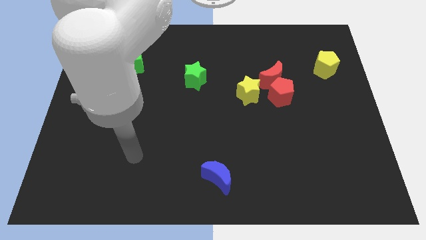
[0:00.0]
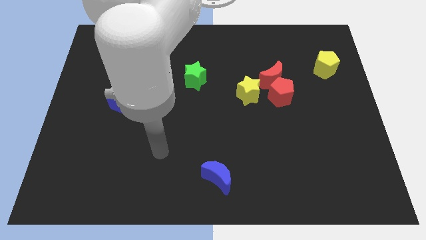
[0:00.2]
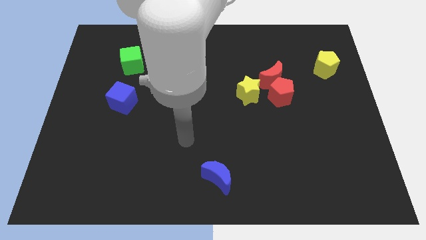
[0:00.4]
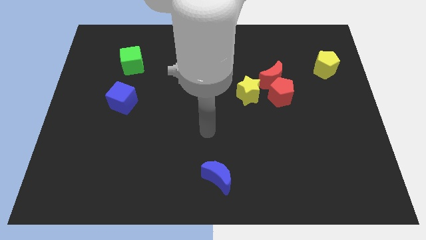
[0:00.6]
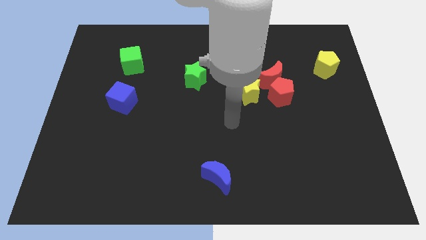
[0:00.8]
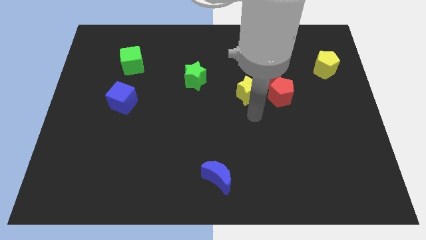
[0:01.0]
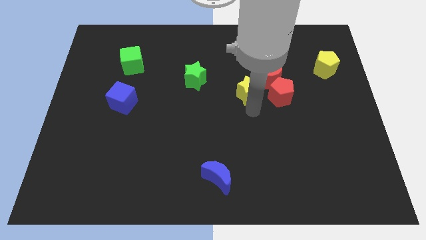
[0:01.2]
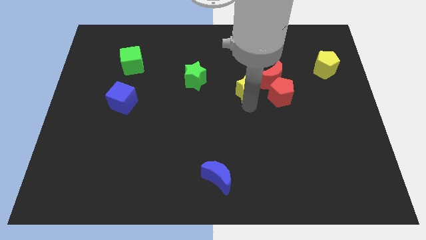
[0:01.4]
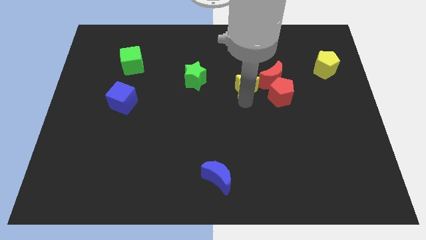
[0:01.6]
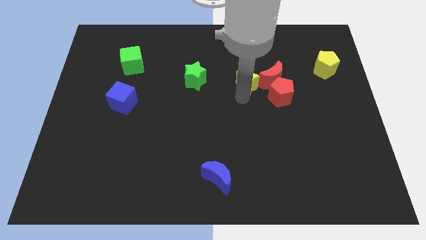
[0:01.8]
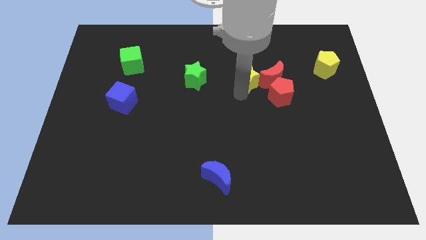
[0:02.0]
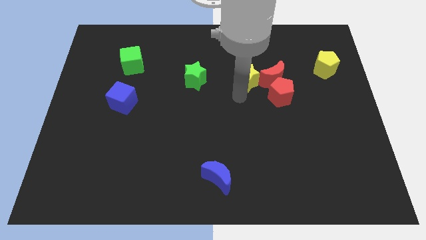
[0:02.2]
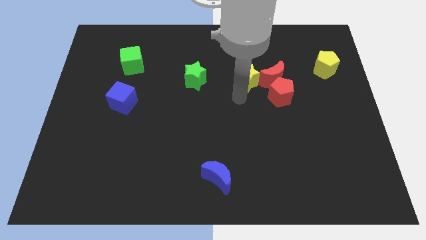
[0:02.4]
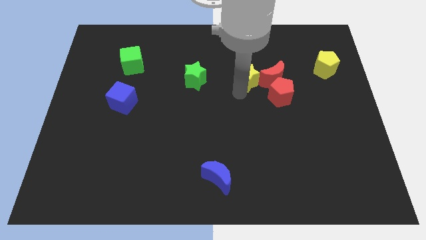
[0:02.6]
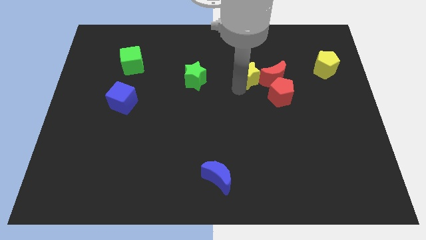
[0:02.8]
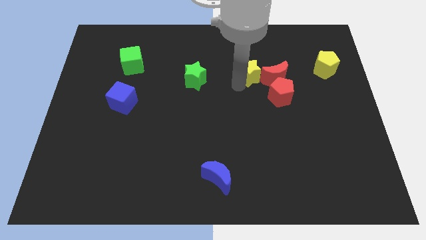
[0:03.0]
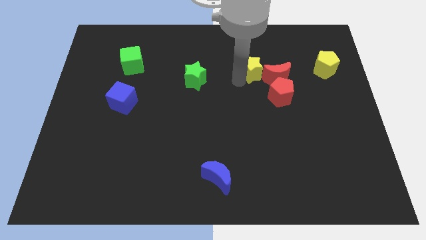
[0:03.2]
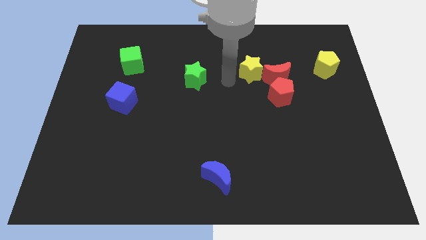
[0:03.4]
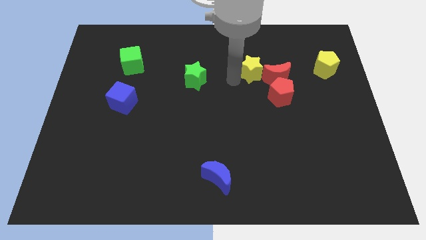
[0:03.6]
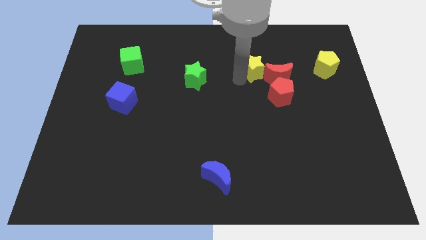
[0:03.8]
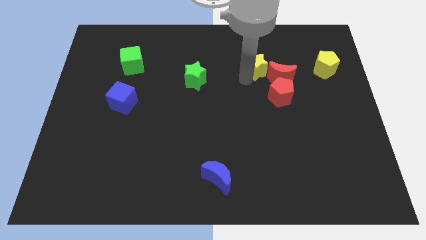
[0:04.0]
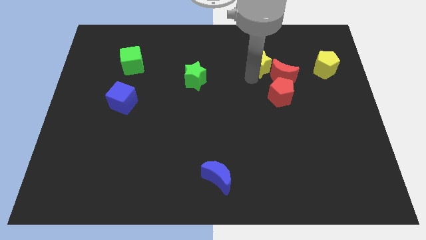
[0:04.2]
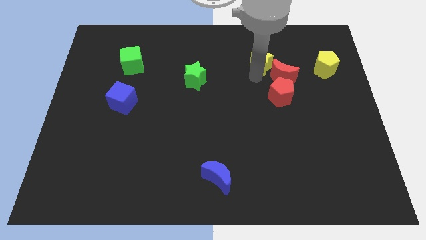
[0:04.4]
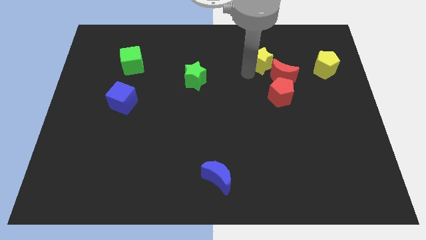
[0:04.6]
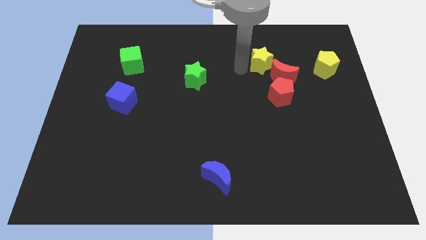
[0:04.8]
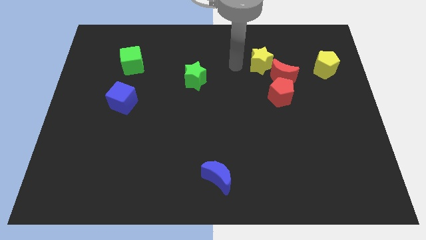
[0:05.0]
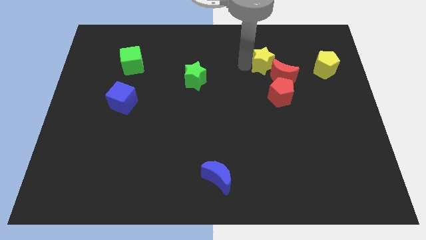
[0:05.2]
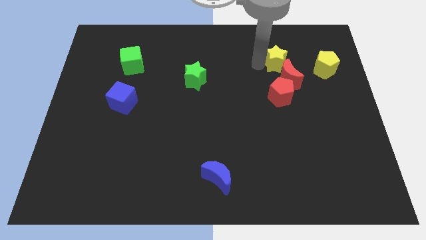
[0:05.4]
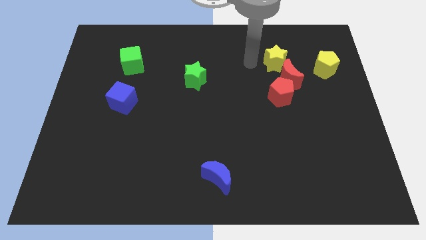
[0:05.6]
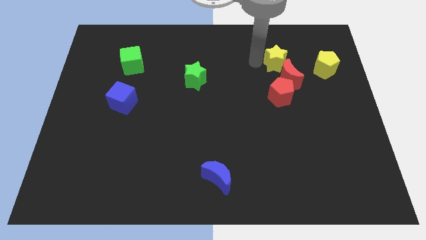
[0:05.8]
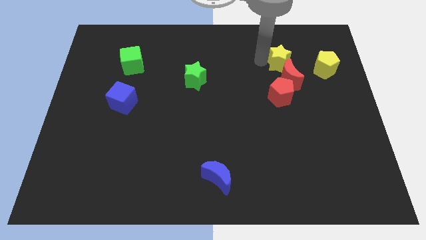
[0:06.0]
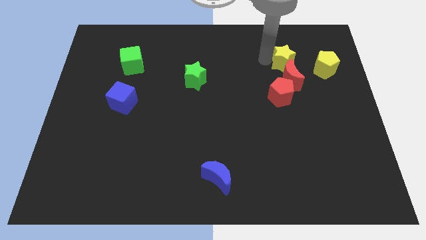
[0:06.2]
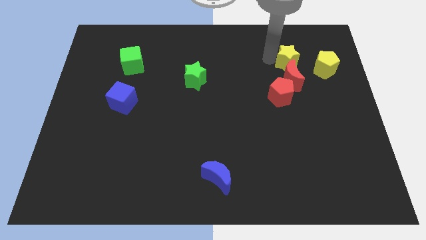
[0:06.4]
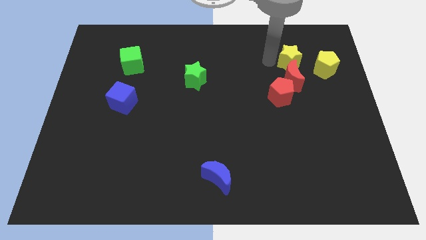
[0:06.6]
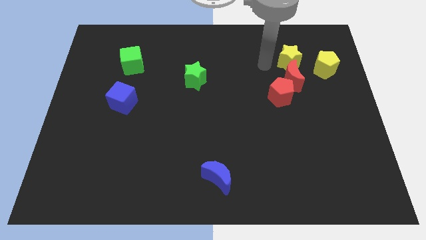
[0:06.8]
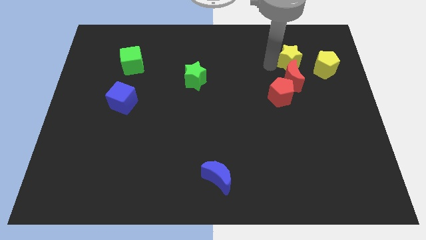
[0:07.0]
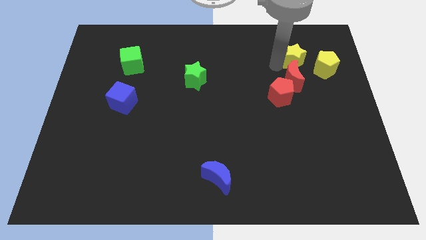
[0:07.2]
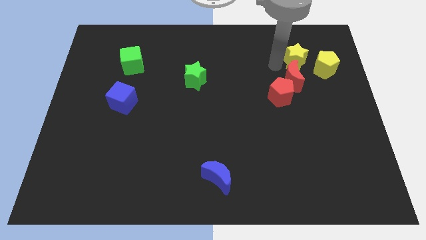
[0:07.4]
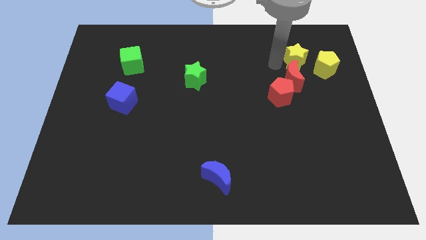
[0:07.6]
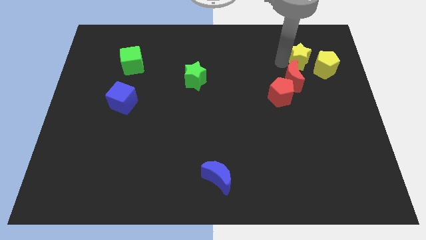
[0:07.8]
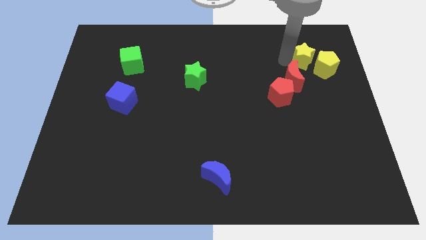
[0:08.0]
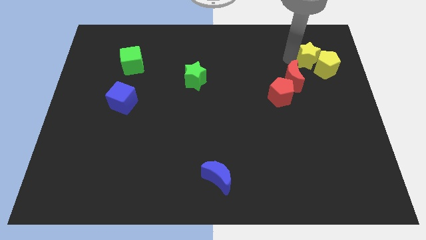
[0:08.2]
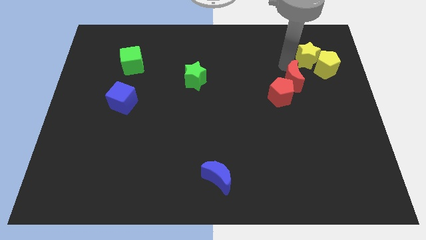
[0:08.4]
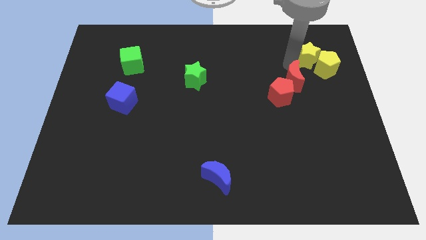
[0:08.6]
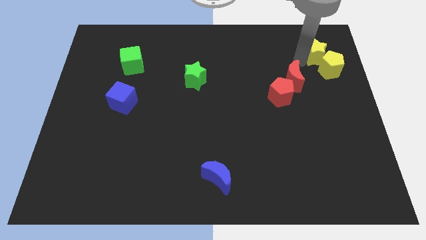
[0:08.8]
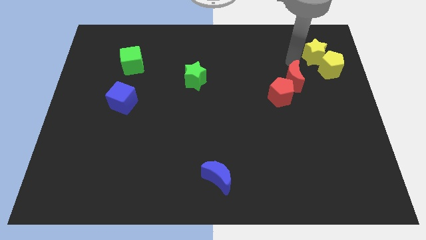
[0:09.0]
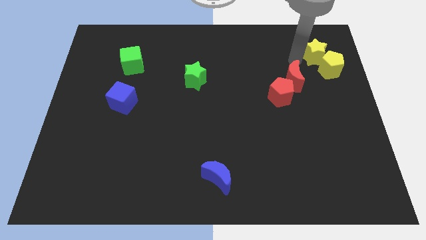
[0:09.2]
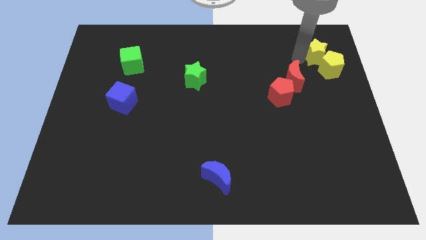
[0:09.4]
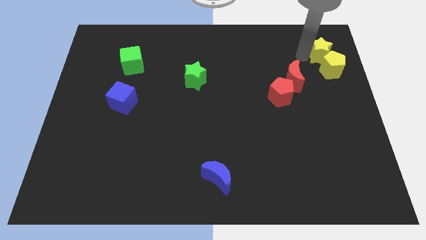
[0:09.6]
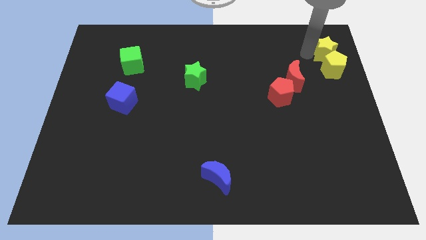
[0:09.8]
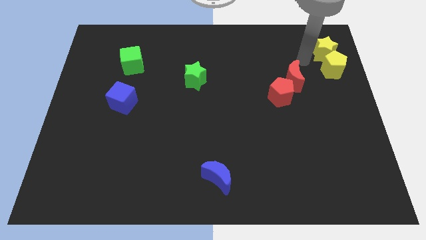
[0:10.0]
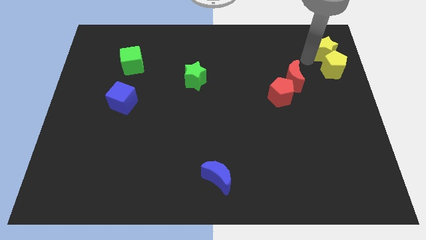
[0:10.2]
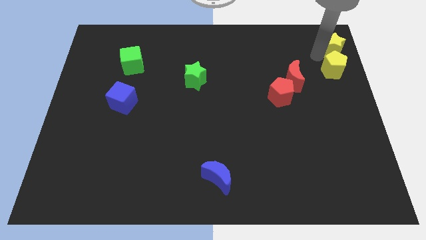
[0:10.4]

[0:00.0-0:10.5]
push the yellow star to the upper right corner

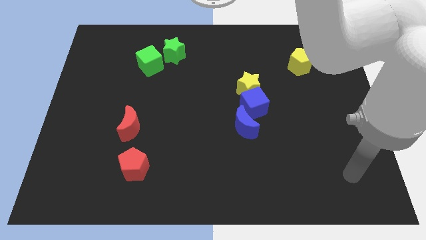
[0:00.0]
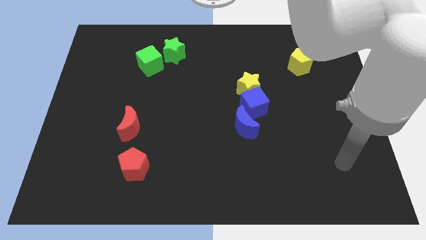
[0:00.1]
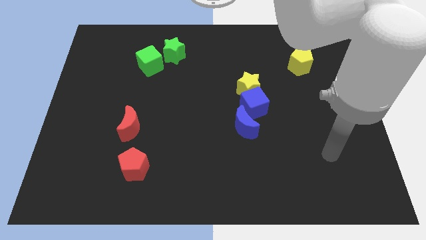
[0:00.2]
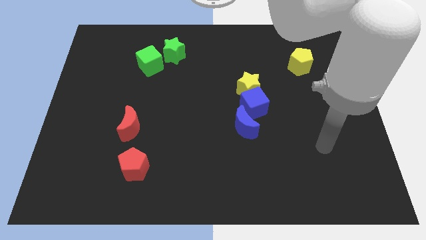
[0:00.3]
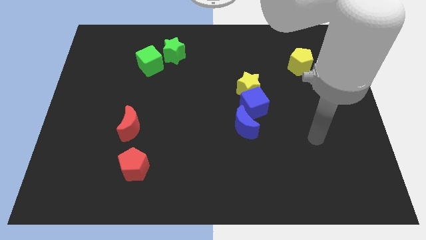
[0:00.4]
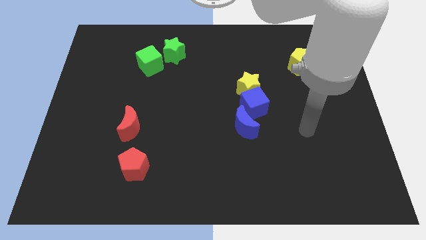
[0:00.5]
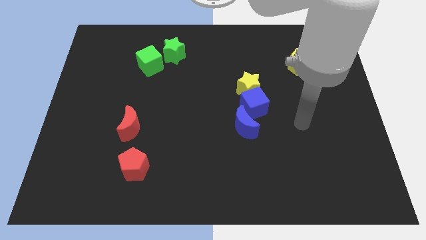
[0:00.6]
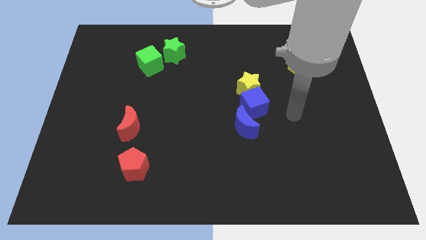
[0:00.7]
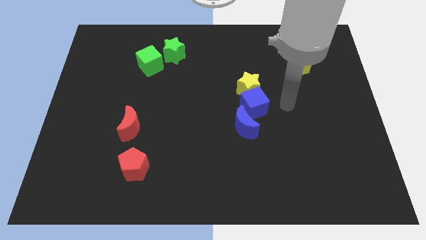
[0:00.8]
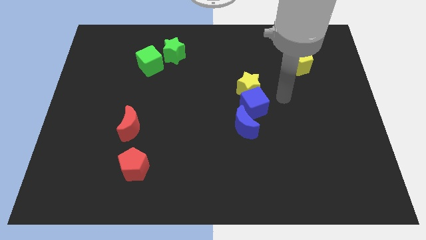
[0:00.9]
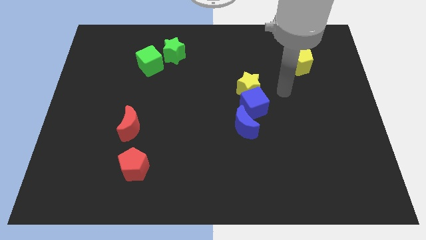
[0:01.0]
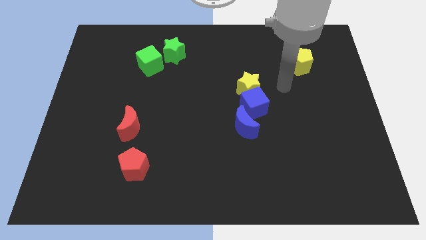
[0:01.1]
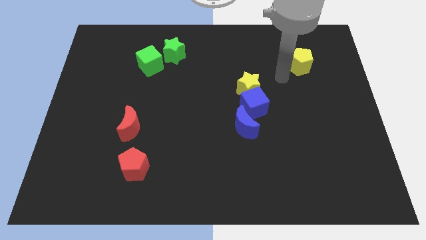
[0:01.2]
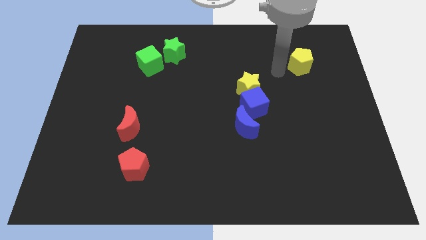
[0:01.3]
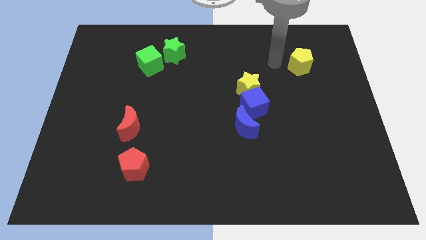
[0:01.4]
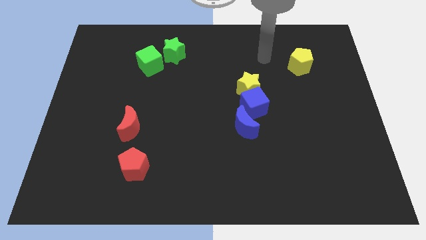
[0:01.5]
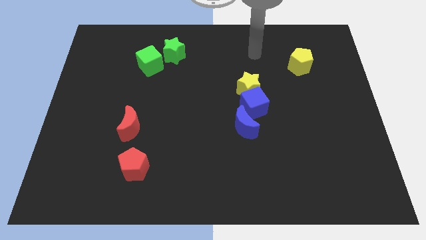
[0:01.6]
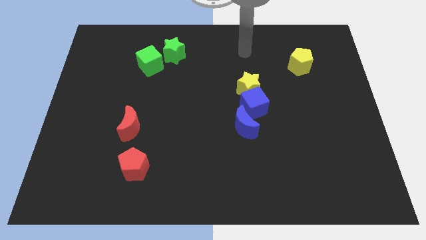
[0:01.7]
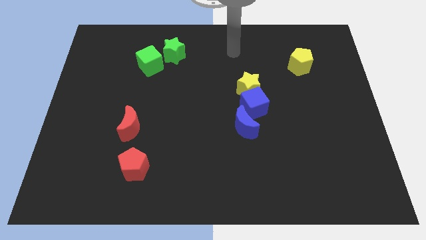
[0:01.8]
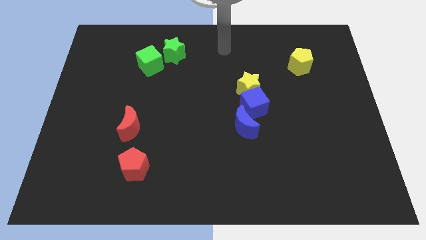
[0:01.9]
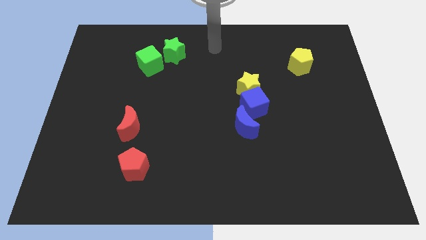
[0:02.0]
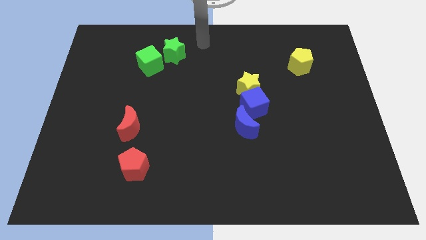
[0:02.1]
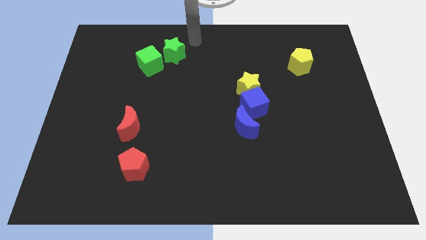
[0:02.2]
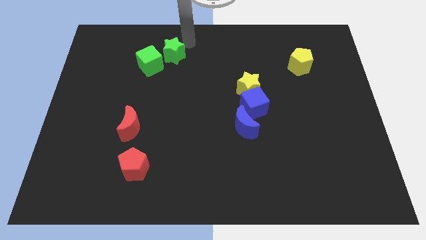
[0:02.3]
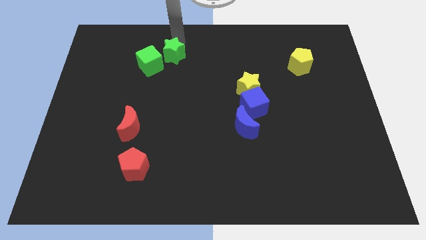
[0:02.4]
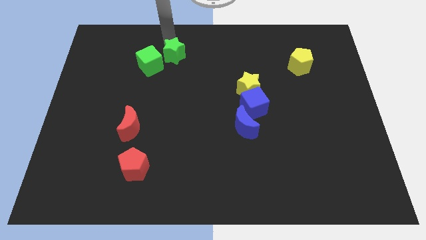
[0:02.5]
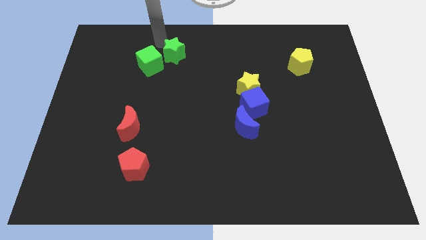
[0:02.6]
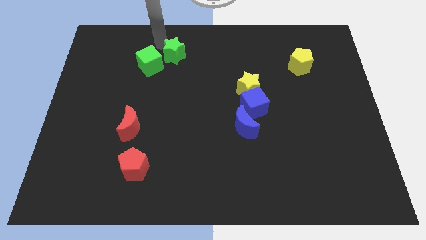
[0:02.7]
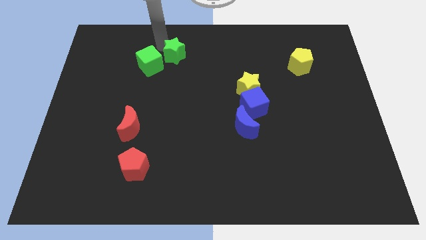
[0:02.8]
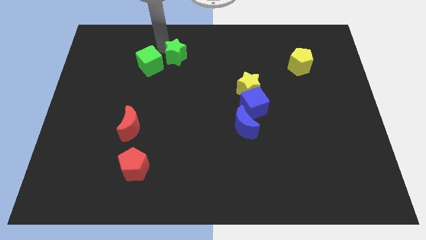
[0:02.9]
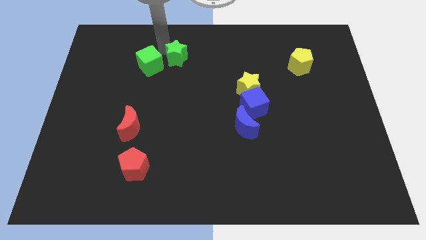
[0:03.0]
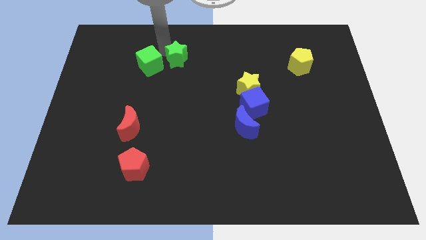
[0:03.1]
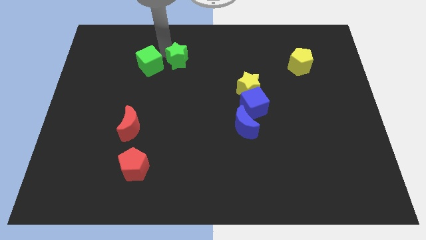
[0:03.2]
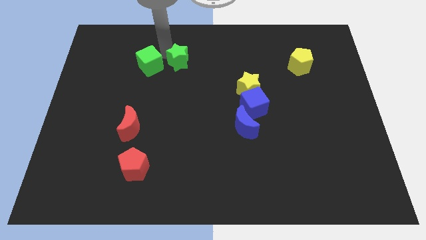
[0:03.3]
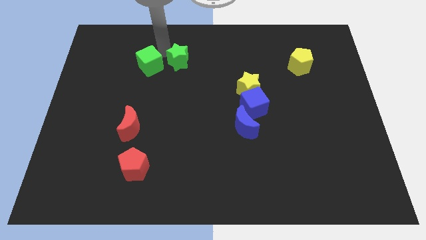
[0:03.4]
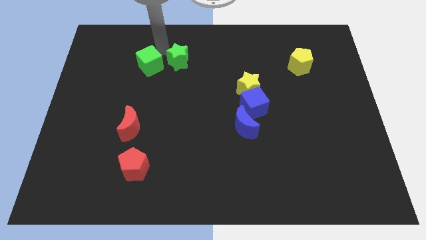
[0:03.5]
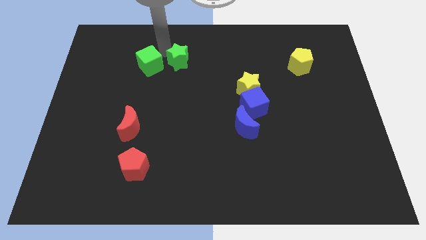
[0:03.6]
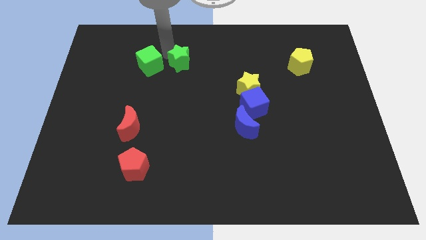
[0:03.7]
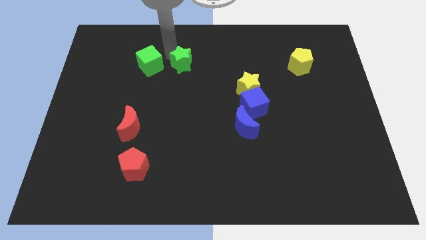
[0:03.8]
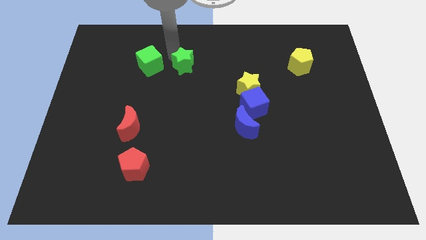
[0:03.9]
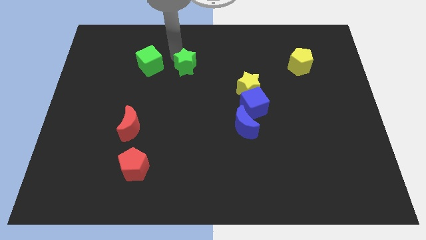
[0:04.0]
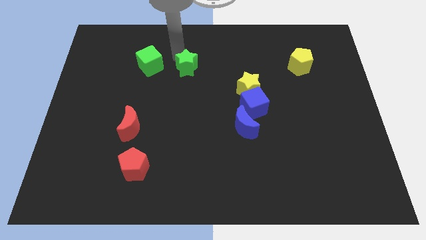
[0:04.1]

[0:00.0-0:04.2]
slide the green star to the middle of the board
